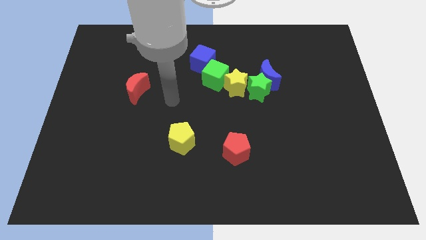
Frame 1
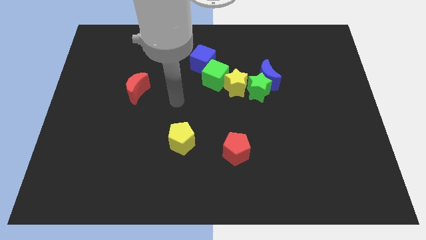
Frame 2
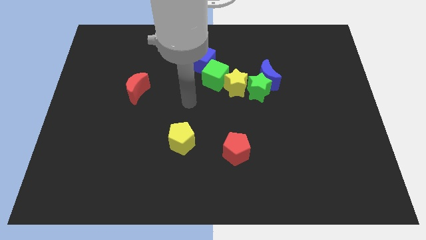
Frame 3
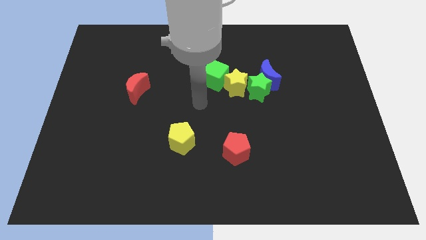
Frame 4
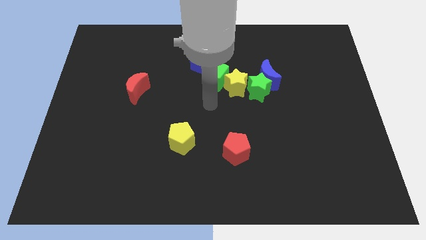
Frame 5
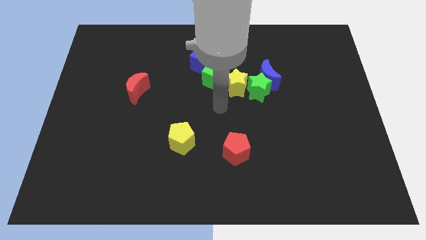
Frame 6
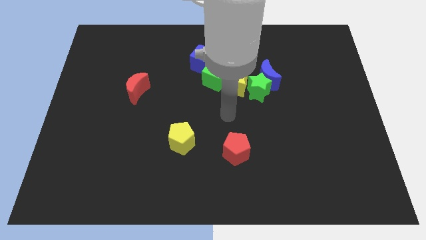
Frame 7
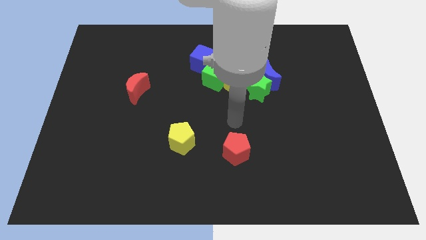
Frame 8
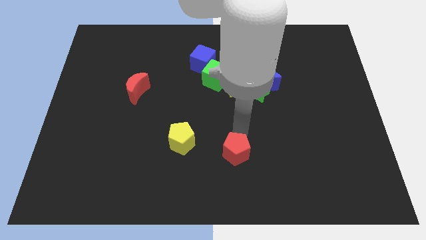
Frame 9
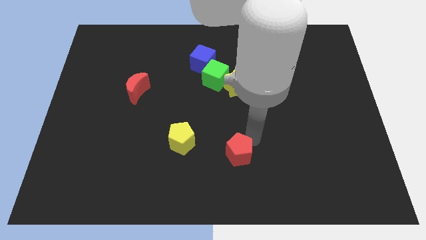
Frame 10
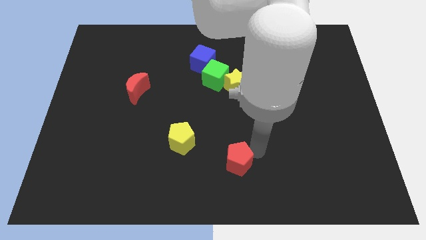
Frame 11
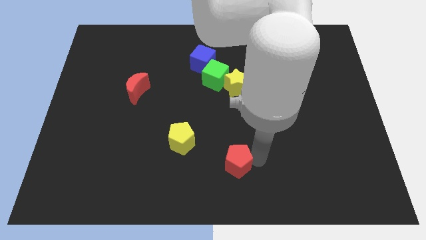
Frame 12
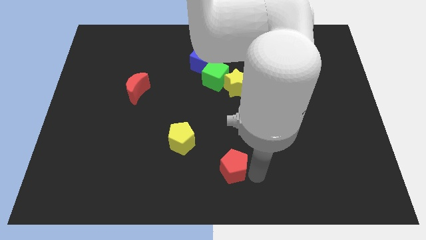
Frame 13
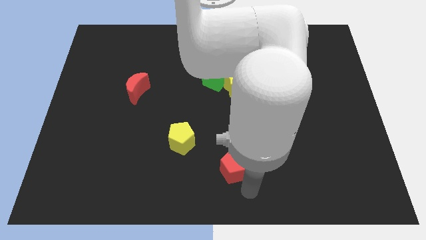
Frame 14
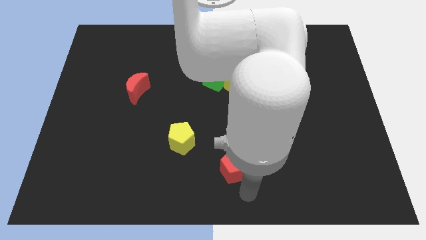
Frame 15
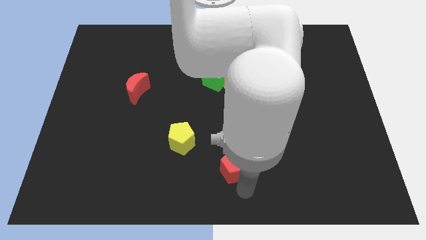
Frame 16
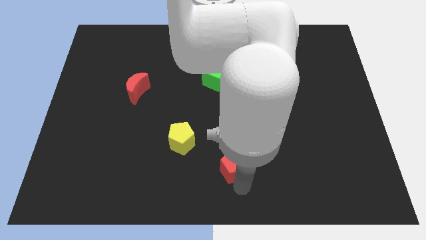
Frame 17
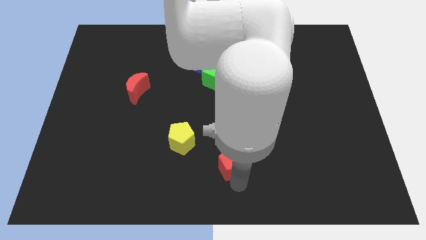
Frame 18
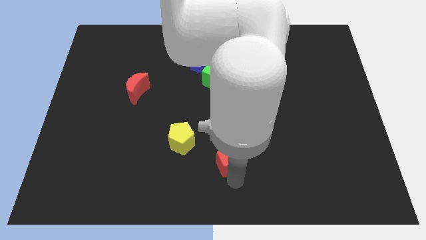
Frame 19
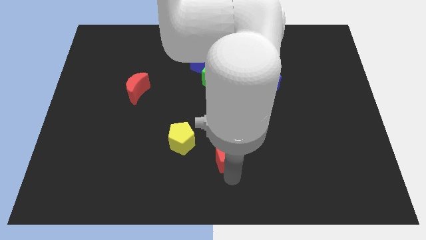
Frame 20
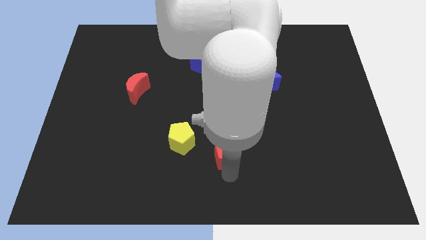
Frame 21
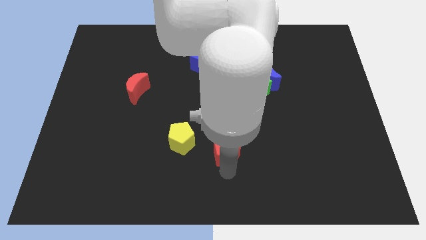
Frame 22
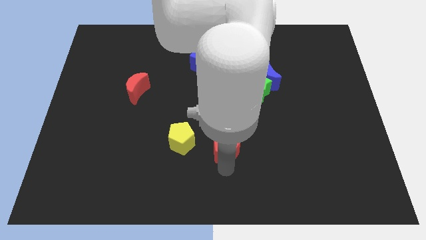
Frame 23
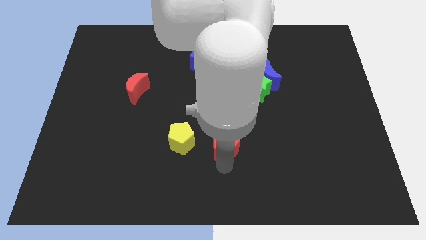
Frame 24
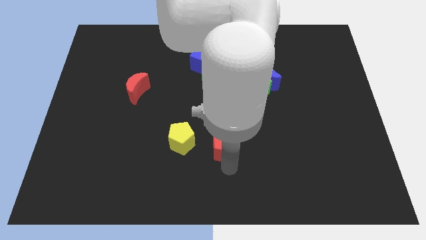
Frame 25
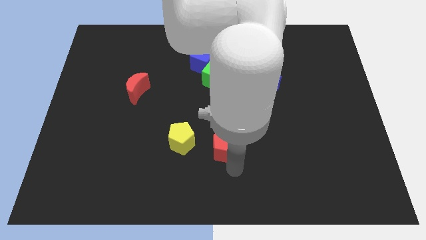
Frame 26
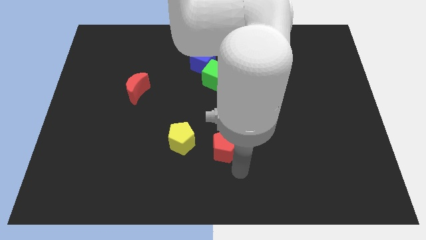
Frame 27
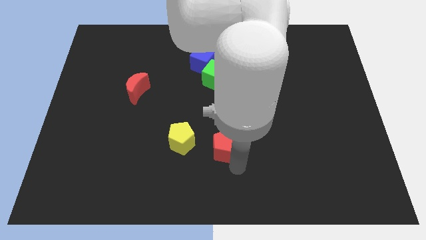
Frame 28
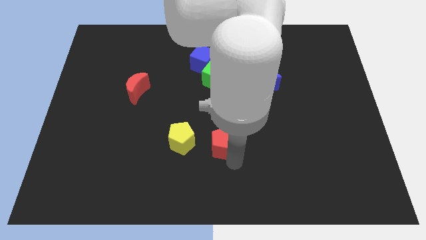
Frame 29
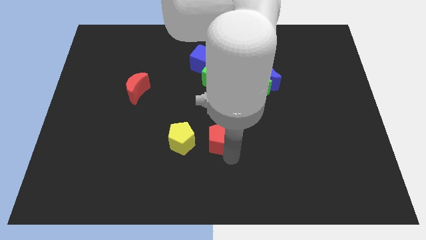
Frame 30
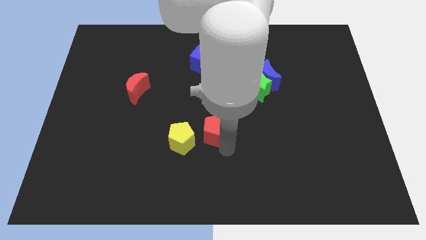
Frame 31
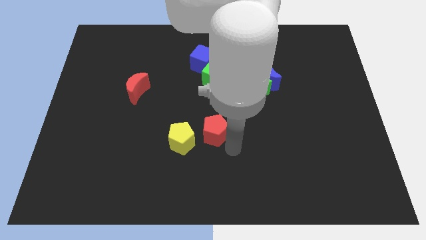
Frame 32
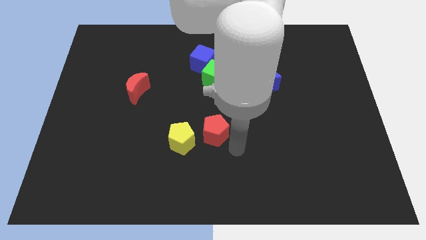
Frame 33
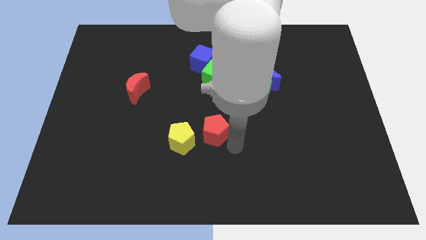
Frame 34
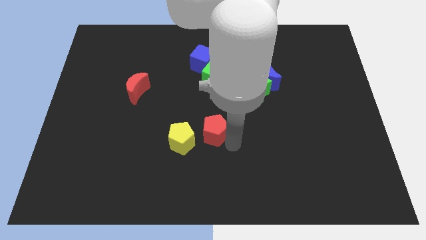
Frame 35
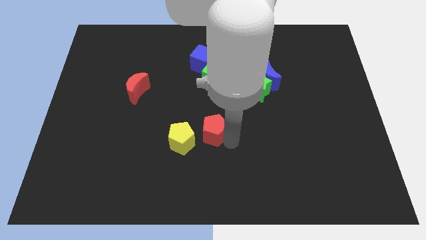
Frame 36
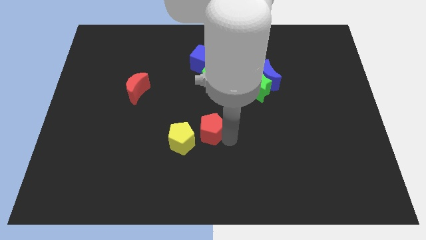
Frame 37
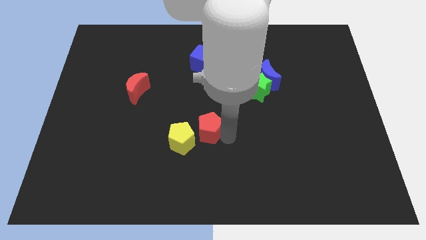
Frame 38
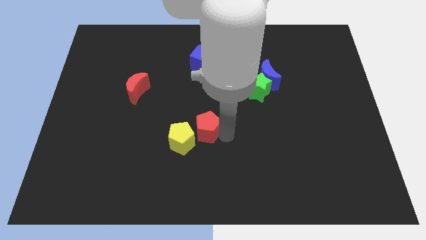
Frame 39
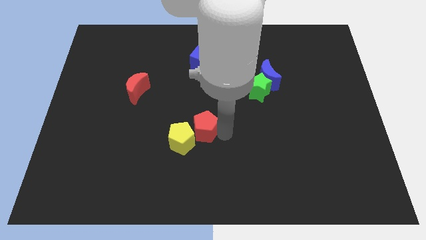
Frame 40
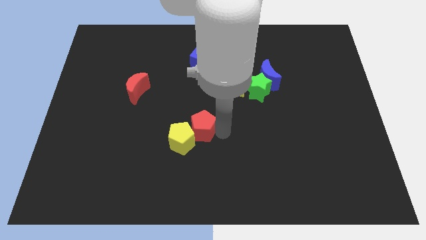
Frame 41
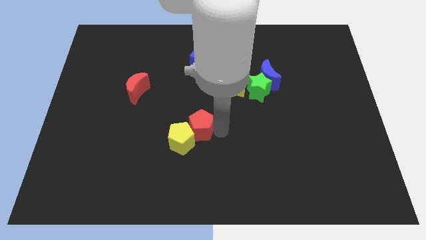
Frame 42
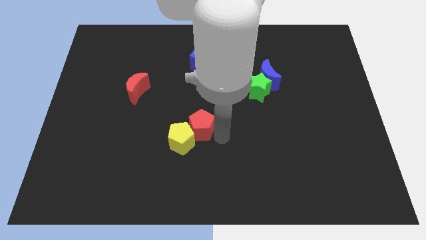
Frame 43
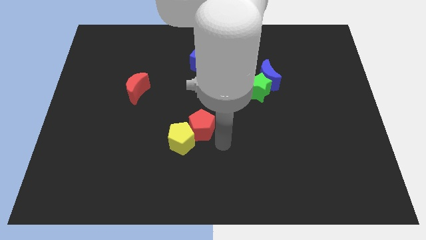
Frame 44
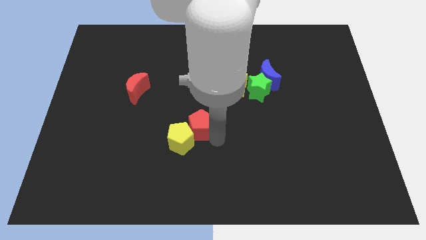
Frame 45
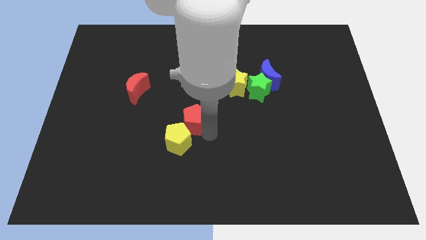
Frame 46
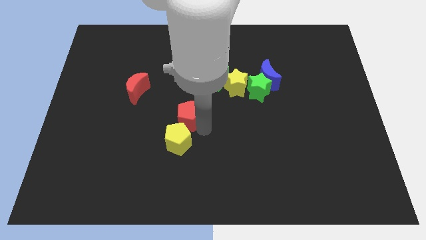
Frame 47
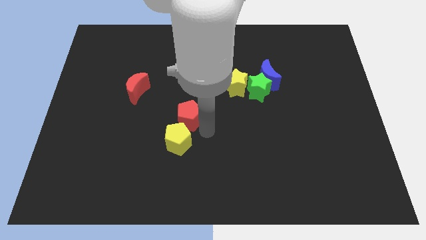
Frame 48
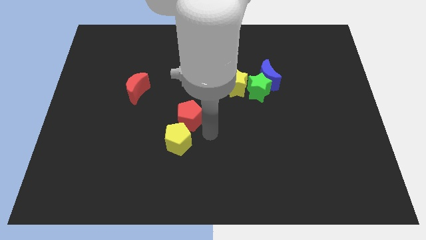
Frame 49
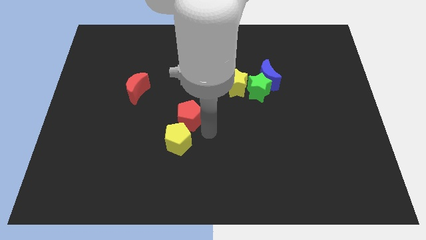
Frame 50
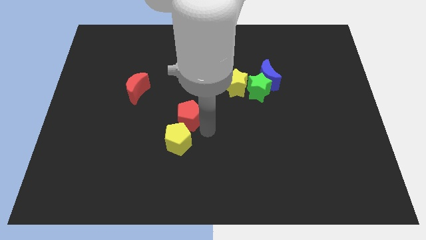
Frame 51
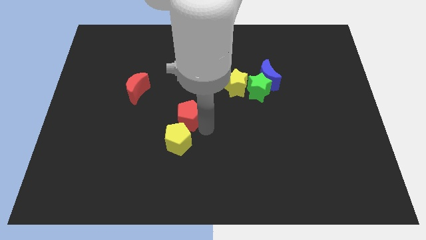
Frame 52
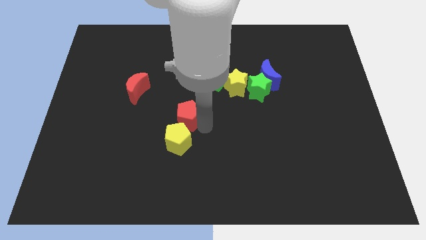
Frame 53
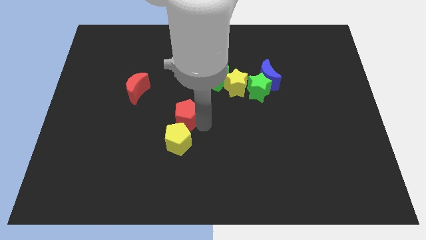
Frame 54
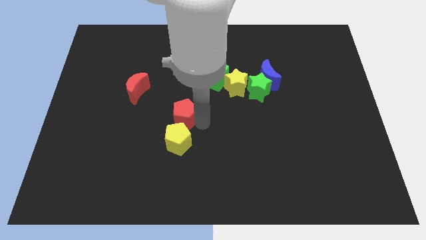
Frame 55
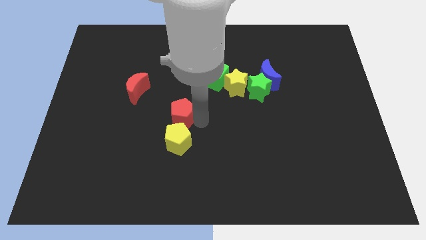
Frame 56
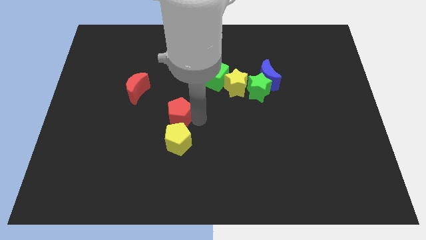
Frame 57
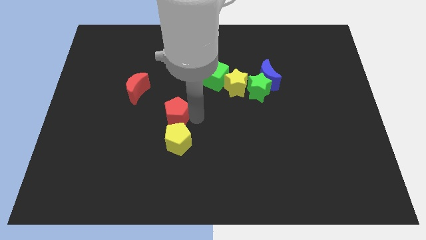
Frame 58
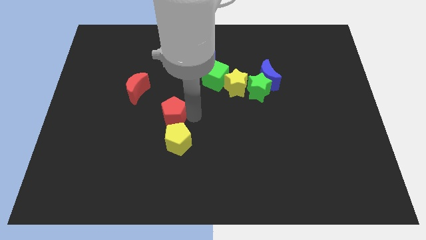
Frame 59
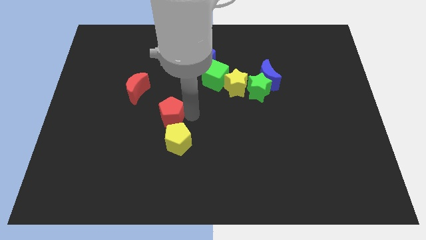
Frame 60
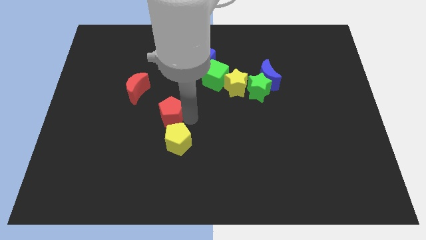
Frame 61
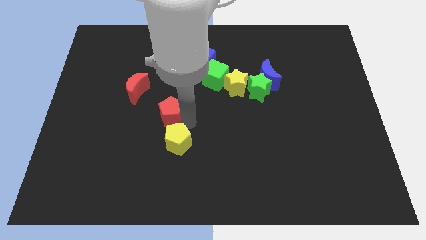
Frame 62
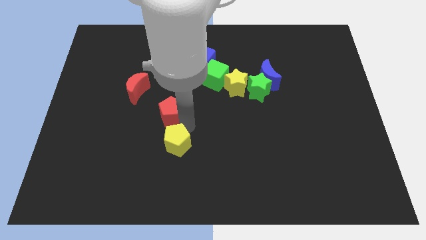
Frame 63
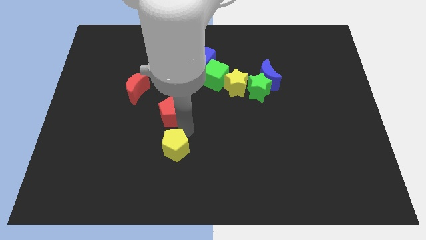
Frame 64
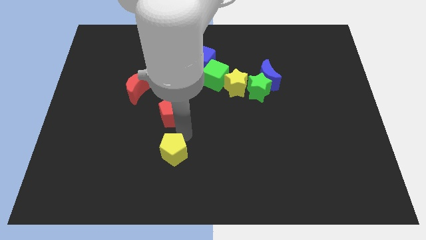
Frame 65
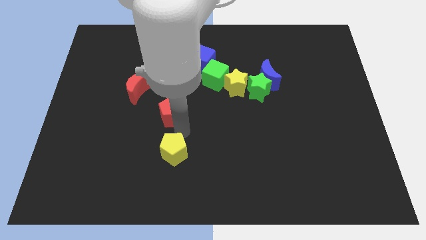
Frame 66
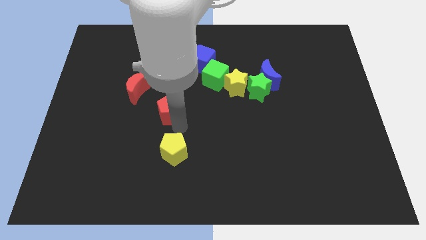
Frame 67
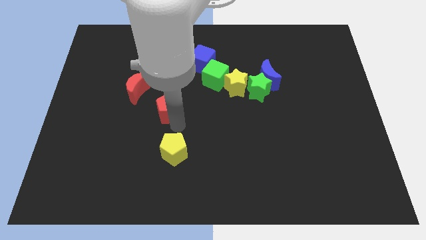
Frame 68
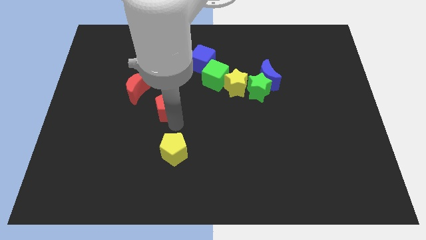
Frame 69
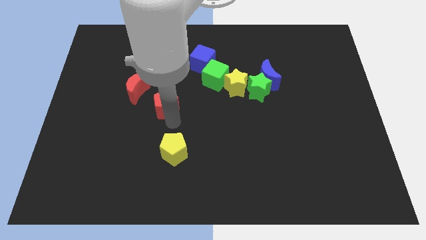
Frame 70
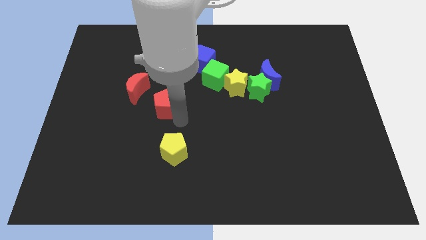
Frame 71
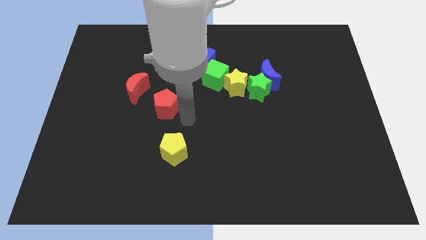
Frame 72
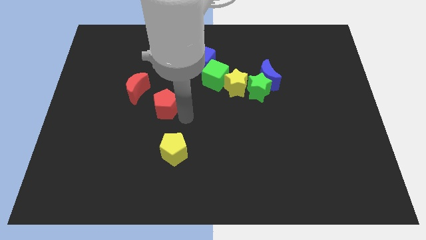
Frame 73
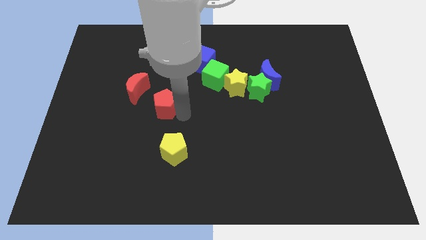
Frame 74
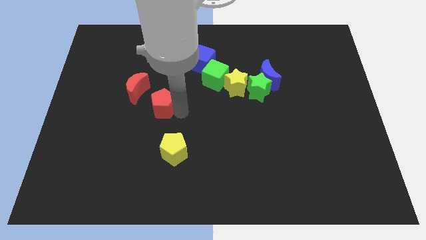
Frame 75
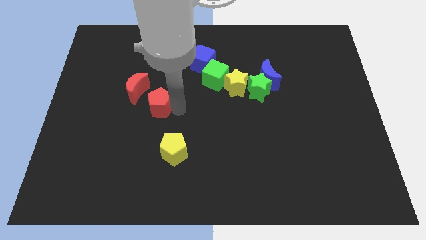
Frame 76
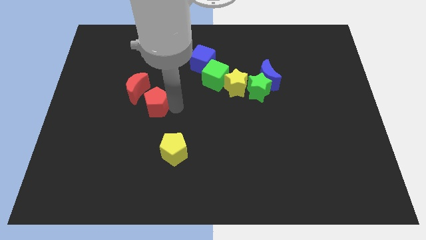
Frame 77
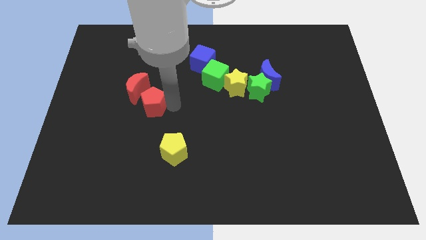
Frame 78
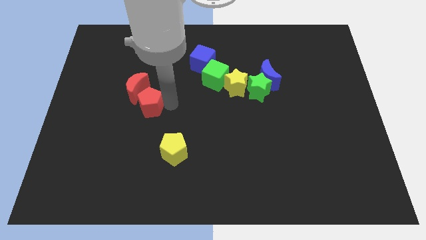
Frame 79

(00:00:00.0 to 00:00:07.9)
slide the red pentagon close to the red moon
